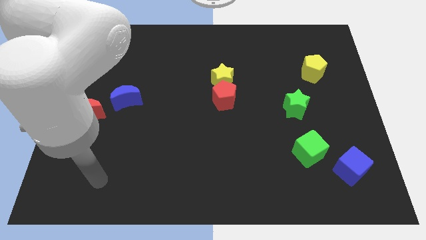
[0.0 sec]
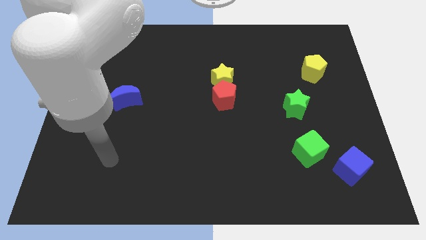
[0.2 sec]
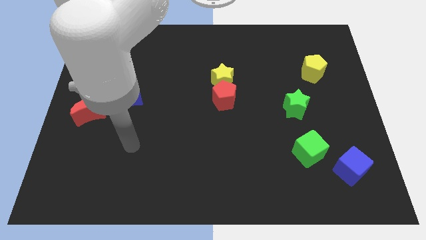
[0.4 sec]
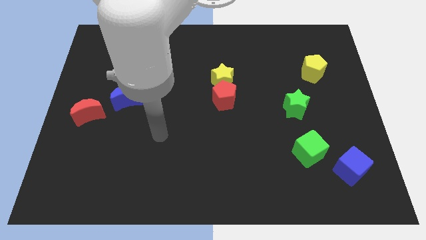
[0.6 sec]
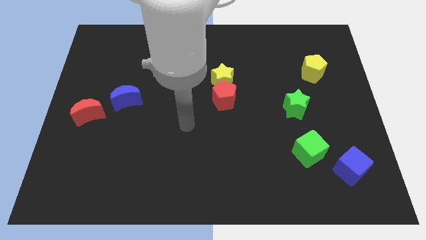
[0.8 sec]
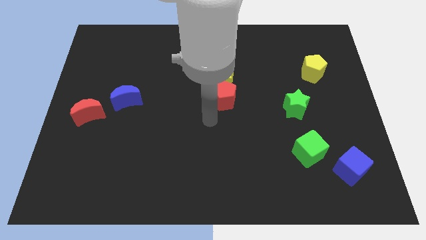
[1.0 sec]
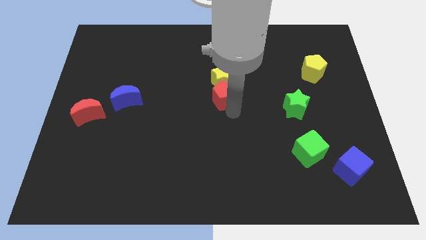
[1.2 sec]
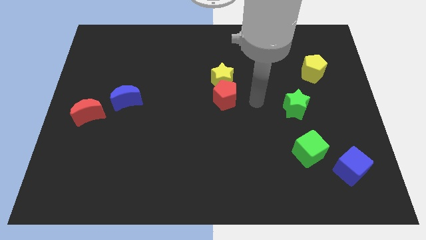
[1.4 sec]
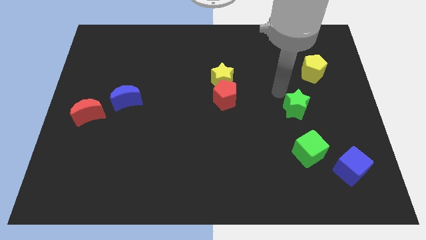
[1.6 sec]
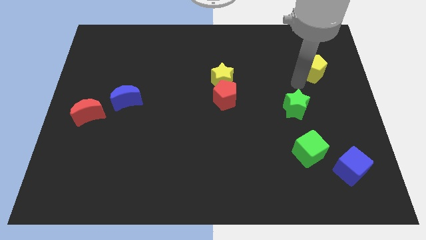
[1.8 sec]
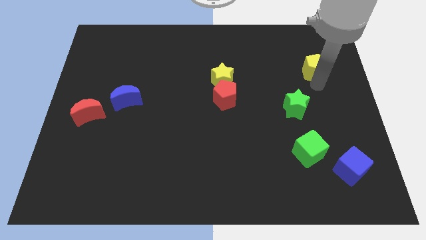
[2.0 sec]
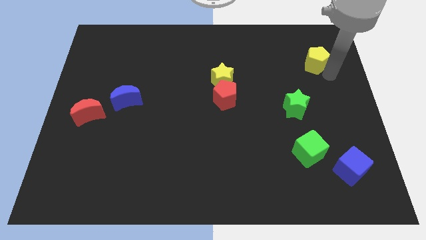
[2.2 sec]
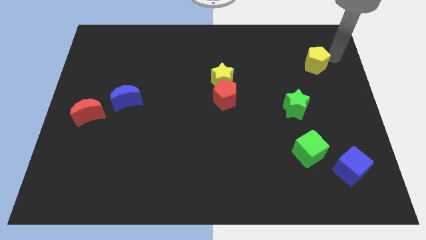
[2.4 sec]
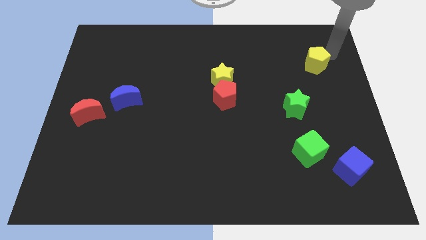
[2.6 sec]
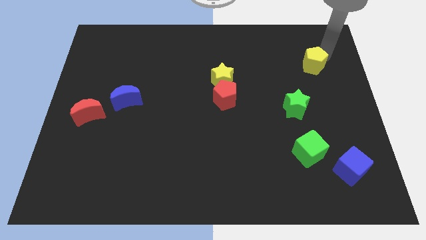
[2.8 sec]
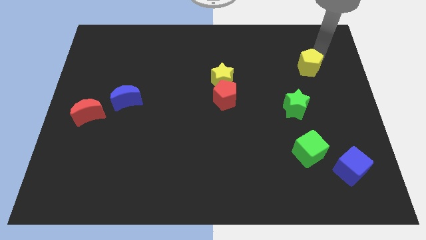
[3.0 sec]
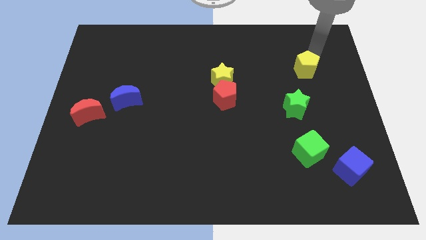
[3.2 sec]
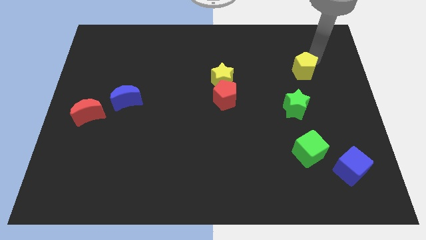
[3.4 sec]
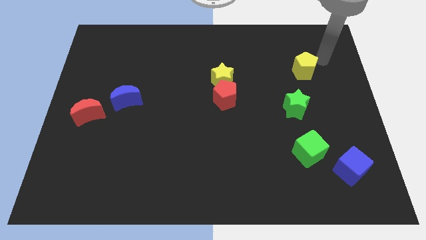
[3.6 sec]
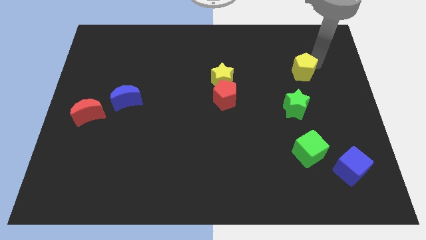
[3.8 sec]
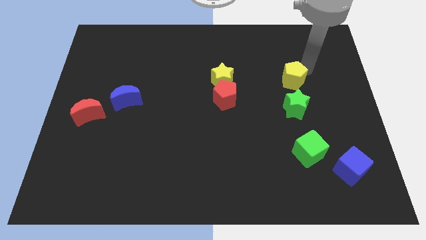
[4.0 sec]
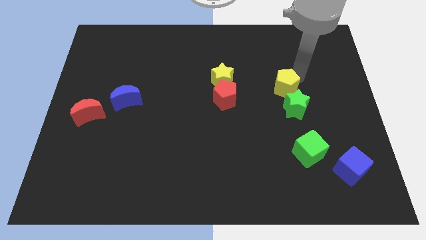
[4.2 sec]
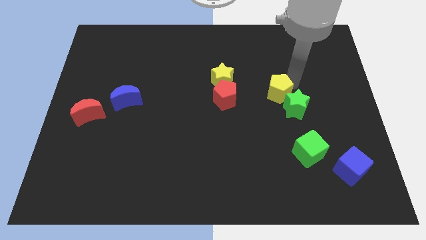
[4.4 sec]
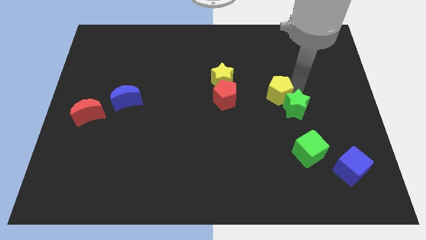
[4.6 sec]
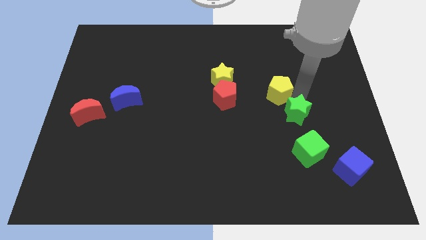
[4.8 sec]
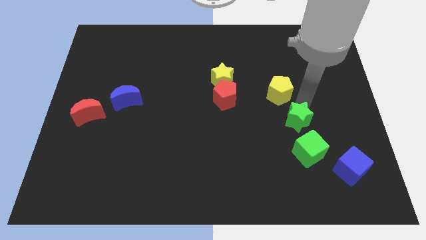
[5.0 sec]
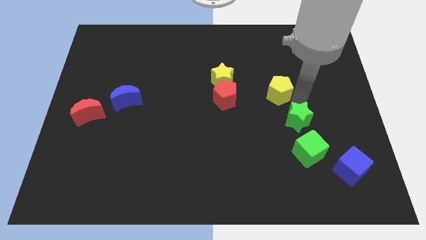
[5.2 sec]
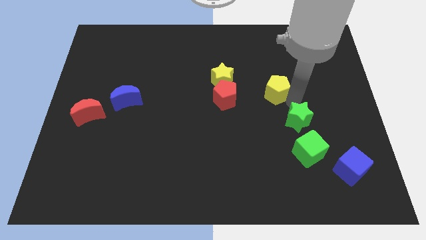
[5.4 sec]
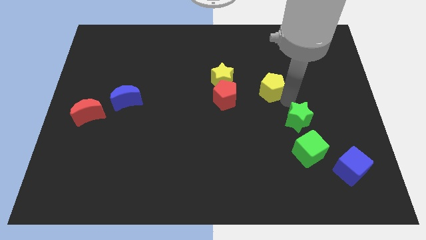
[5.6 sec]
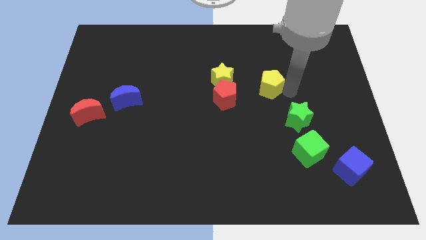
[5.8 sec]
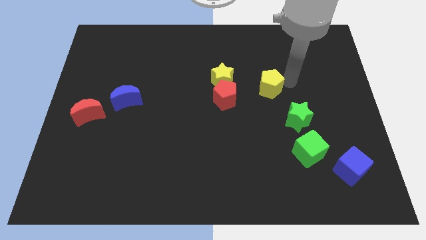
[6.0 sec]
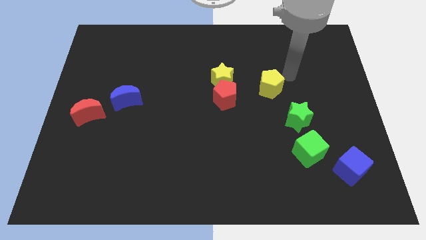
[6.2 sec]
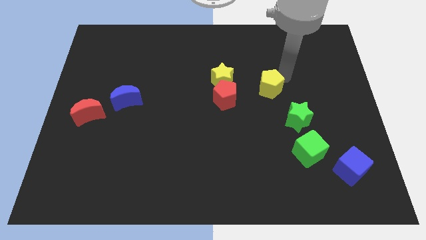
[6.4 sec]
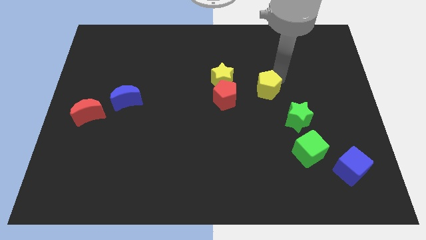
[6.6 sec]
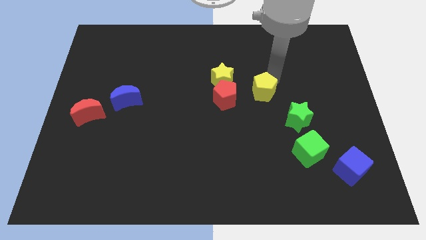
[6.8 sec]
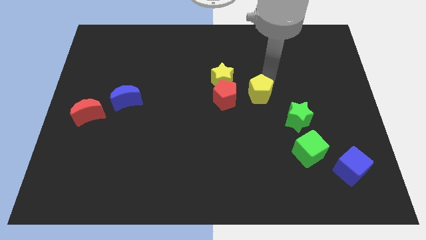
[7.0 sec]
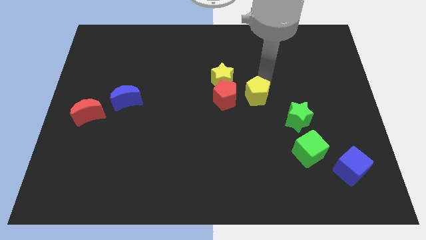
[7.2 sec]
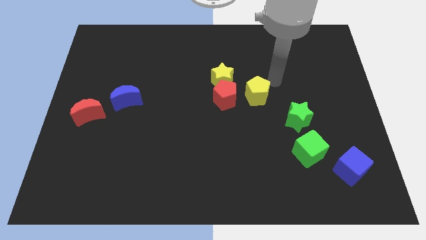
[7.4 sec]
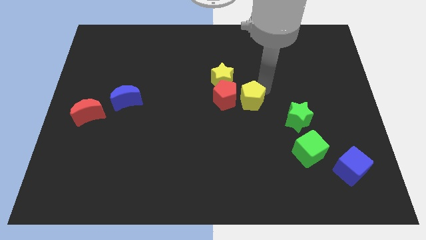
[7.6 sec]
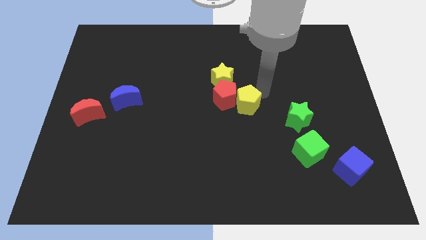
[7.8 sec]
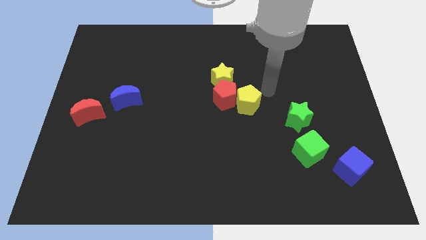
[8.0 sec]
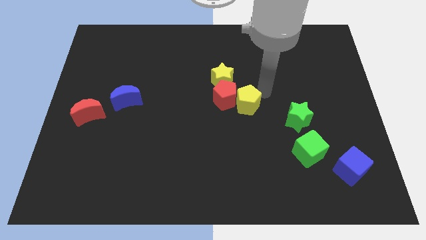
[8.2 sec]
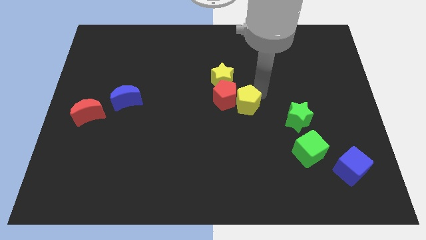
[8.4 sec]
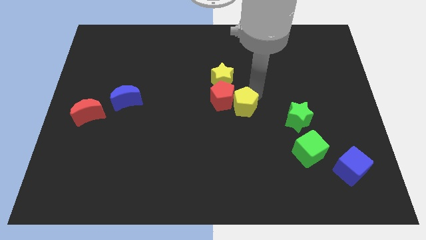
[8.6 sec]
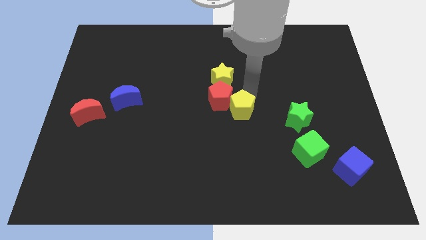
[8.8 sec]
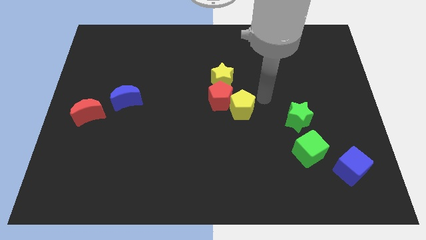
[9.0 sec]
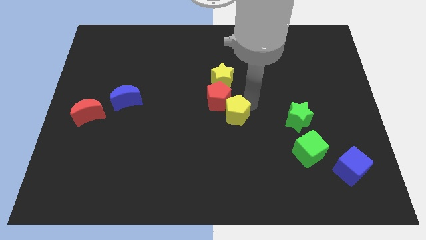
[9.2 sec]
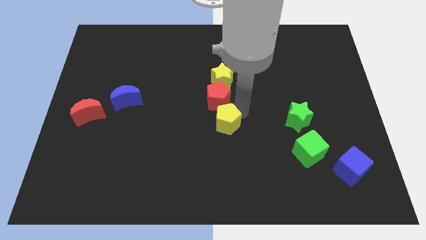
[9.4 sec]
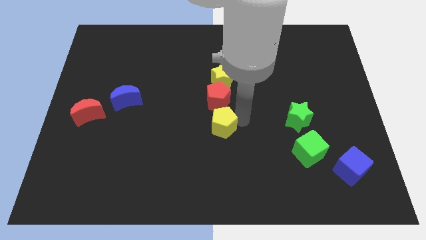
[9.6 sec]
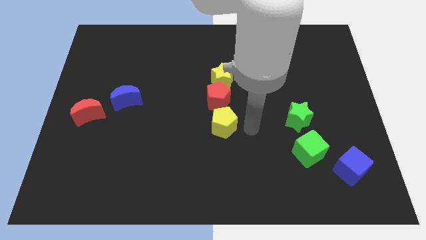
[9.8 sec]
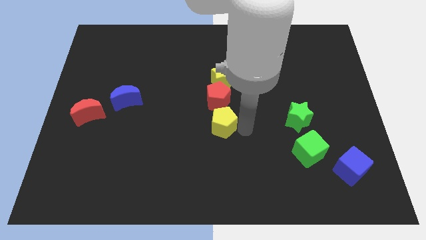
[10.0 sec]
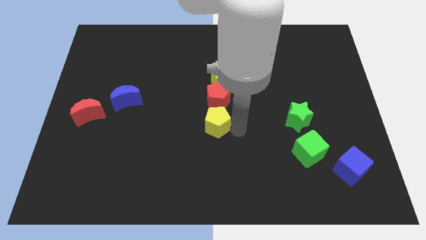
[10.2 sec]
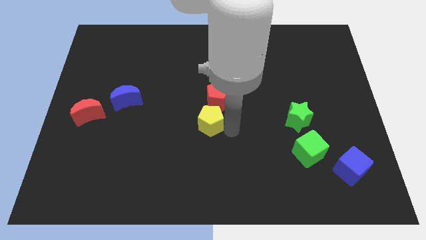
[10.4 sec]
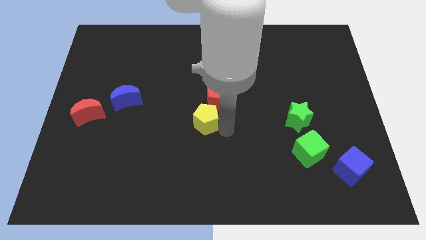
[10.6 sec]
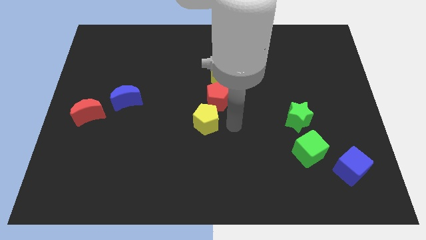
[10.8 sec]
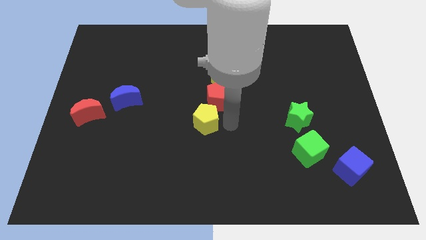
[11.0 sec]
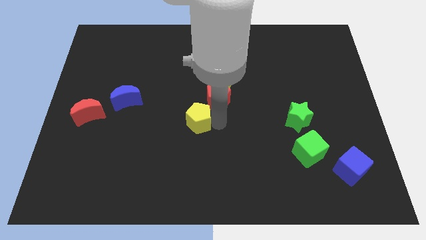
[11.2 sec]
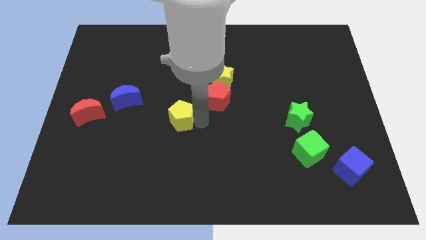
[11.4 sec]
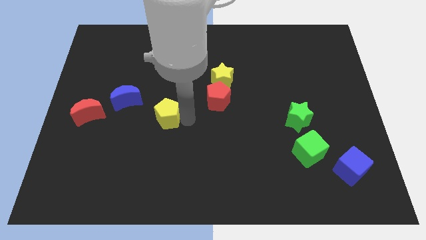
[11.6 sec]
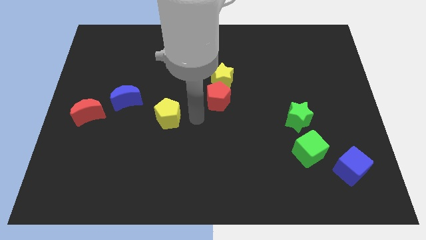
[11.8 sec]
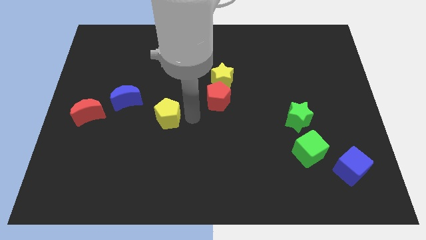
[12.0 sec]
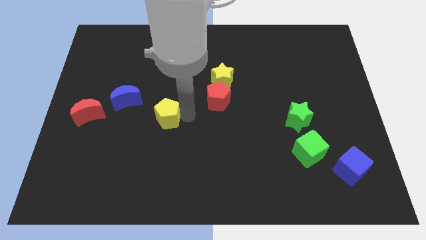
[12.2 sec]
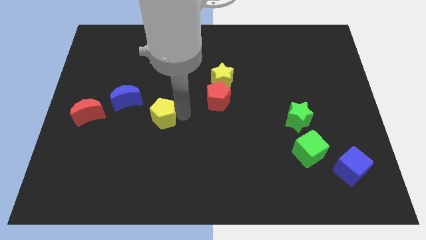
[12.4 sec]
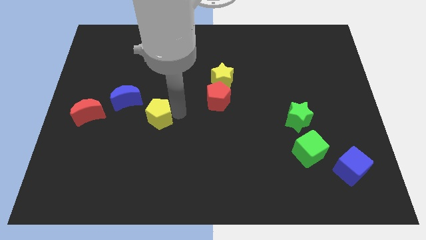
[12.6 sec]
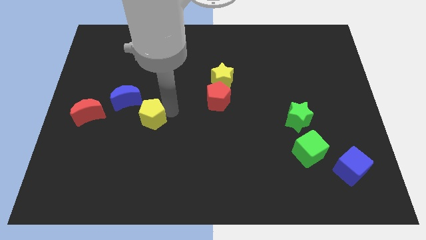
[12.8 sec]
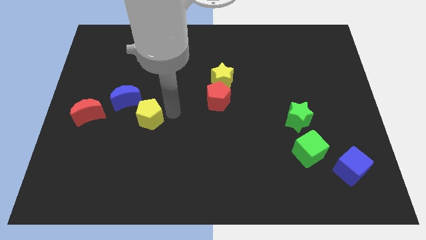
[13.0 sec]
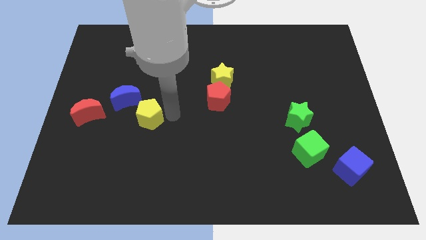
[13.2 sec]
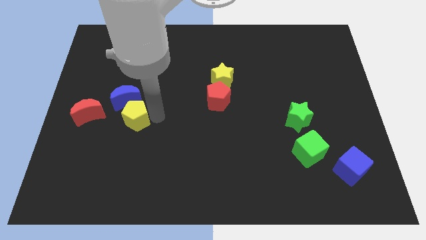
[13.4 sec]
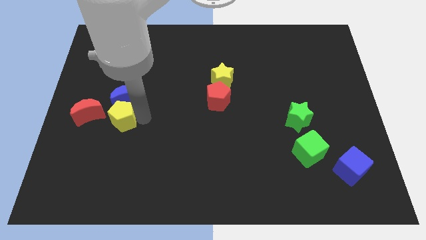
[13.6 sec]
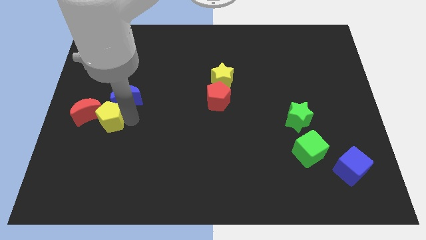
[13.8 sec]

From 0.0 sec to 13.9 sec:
put the yellow pentagon close to the red moon

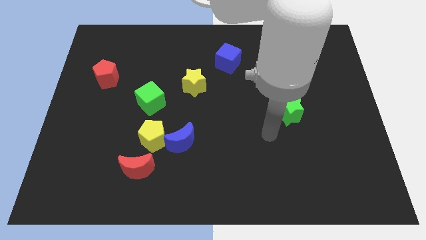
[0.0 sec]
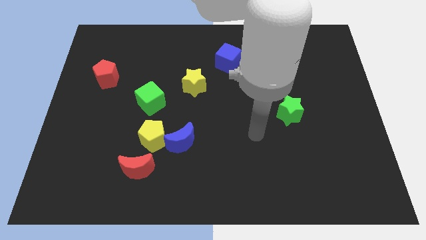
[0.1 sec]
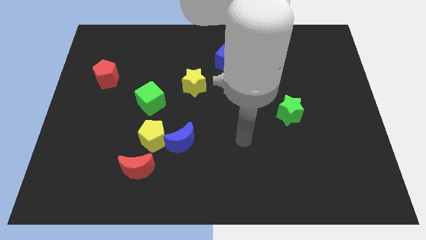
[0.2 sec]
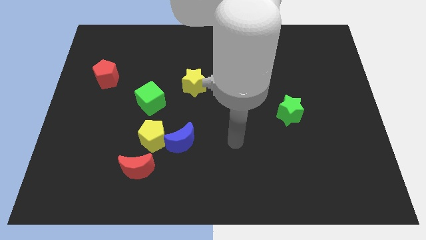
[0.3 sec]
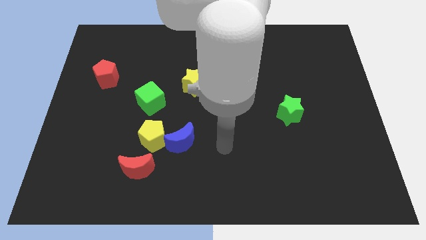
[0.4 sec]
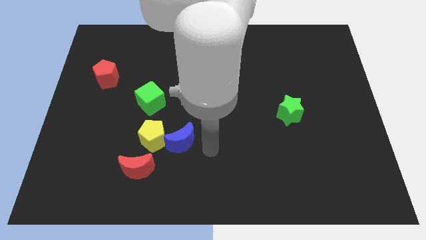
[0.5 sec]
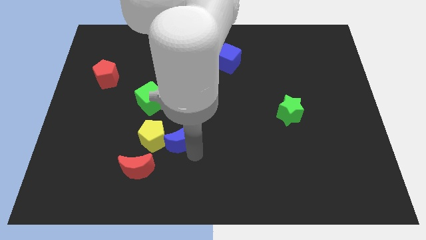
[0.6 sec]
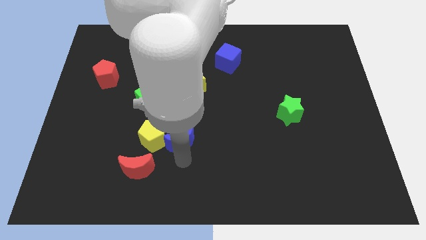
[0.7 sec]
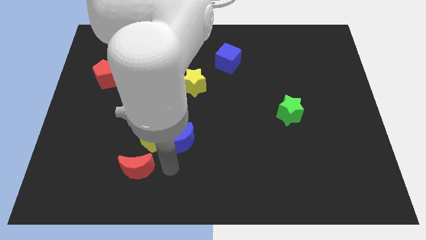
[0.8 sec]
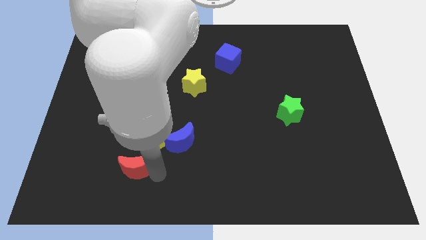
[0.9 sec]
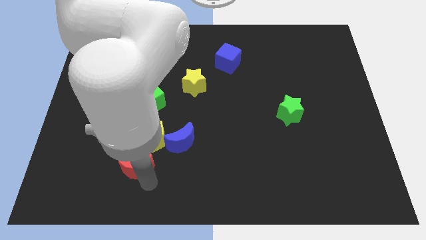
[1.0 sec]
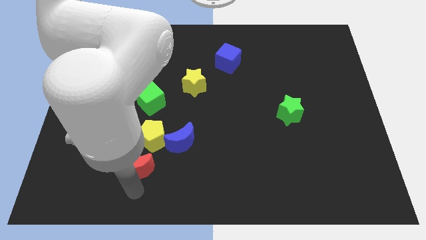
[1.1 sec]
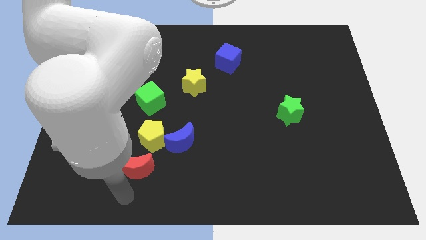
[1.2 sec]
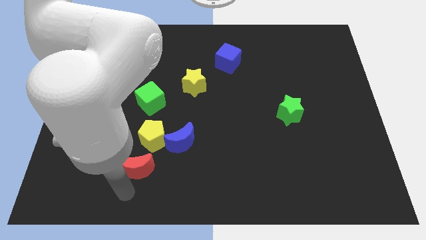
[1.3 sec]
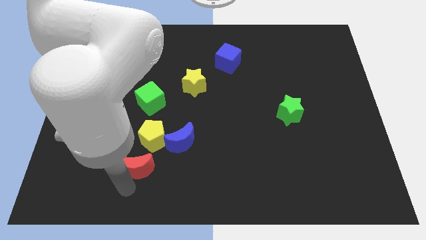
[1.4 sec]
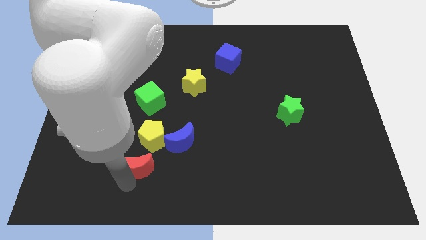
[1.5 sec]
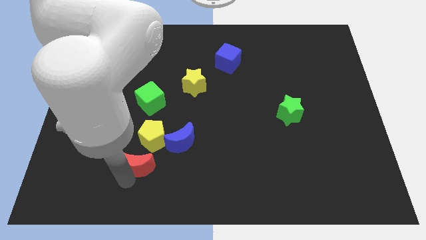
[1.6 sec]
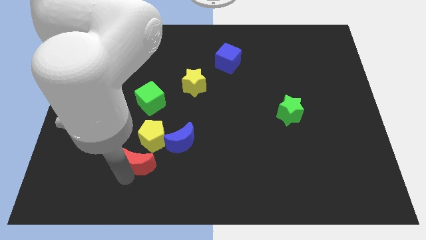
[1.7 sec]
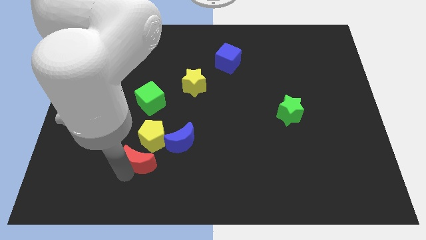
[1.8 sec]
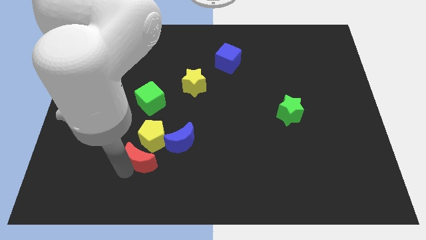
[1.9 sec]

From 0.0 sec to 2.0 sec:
move the red moon next to the yellow pentagon
